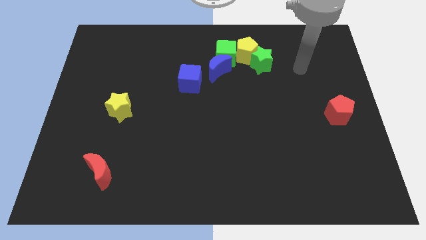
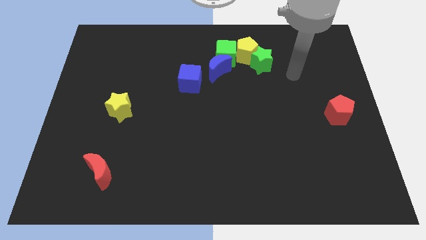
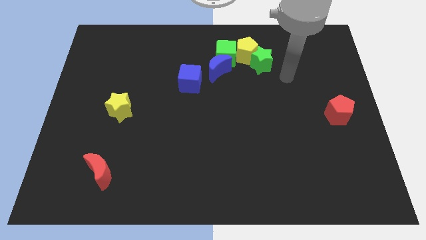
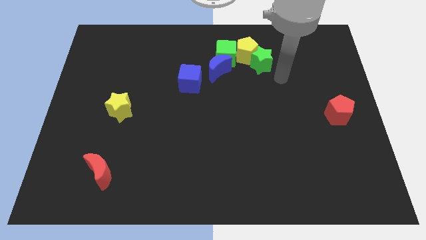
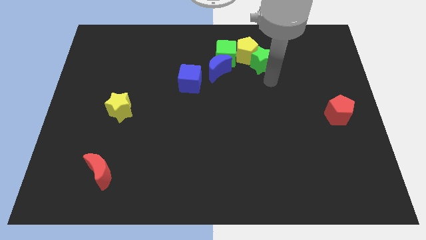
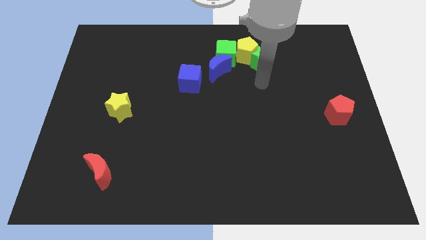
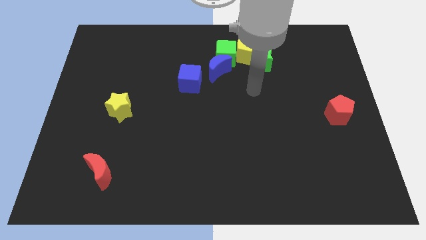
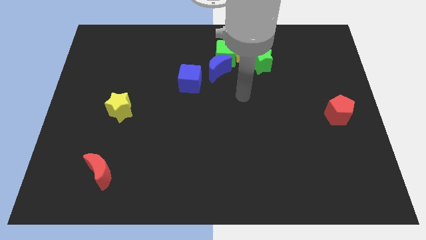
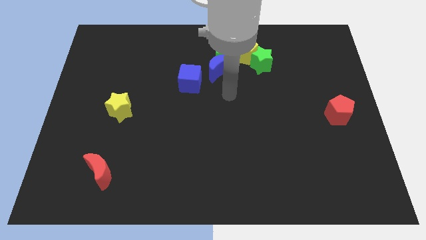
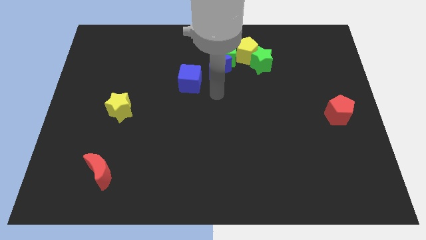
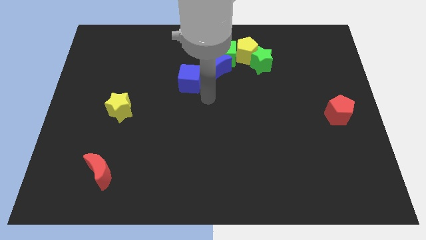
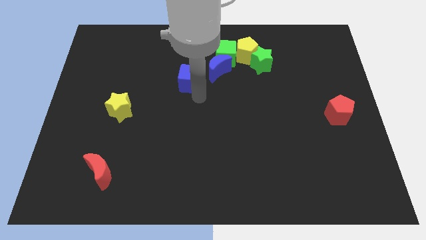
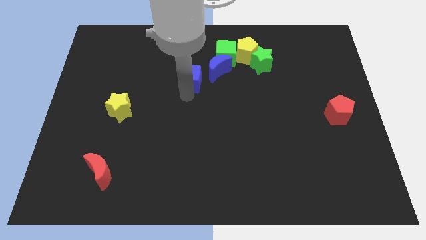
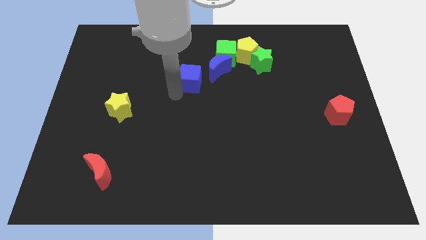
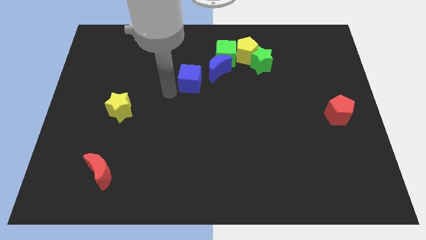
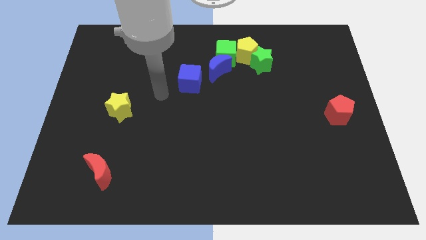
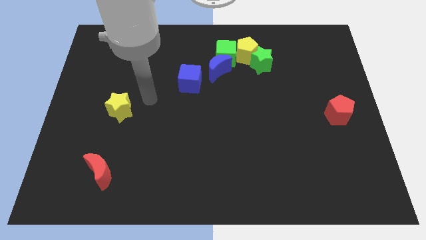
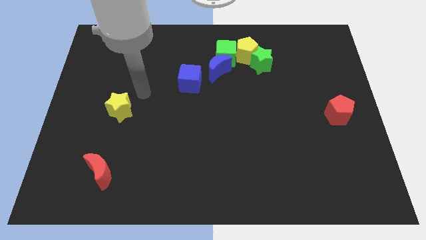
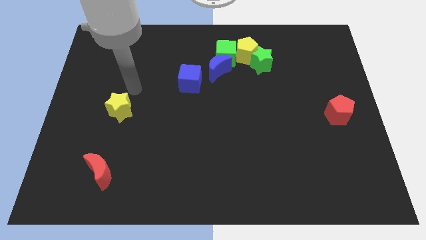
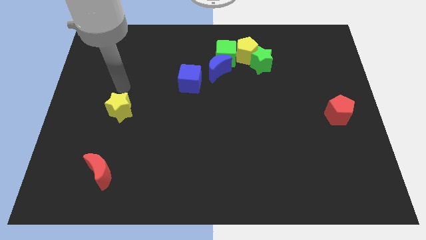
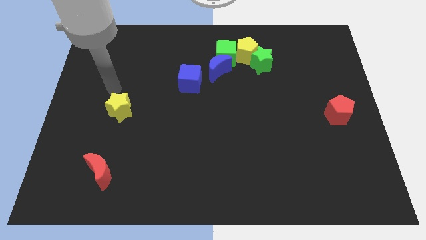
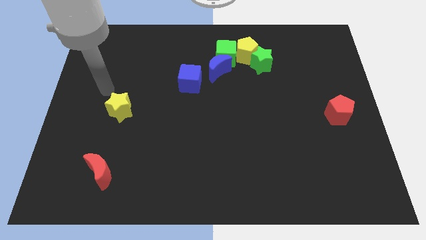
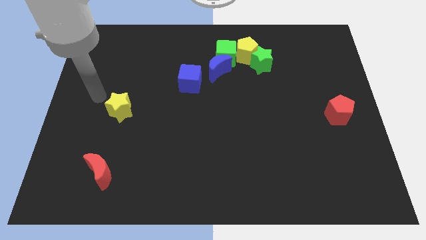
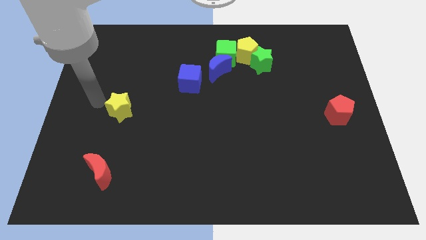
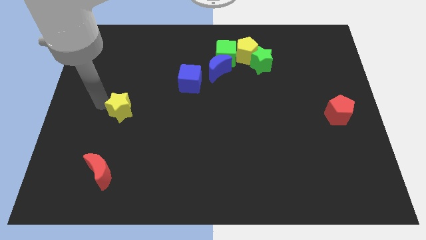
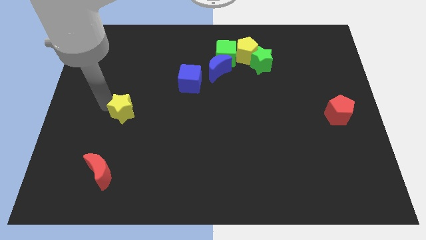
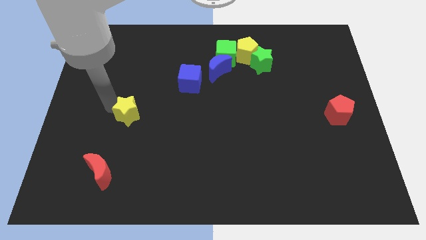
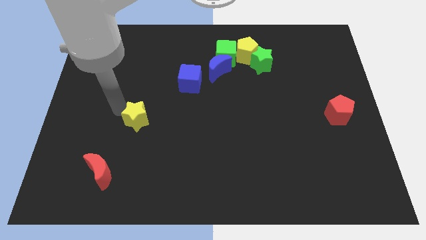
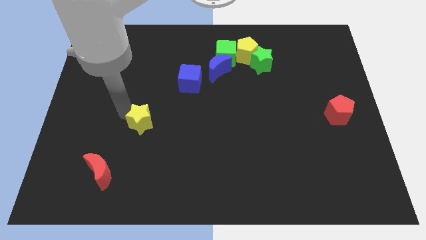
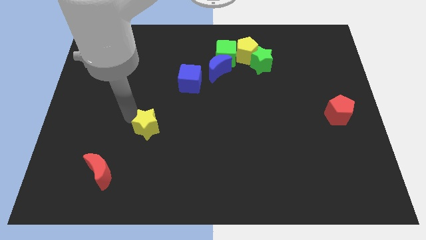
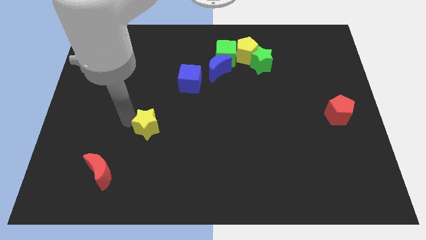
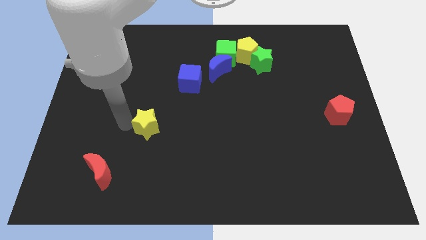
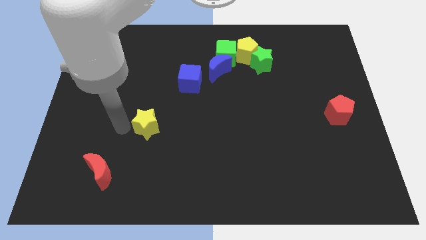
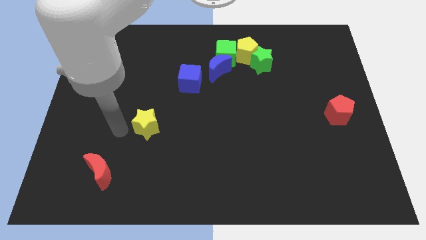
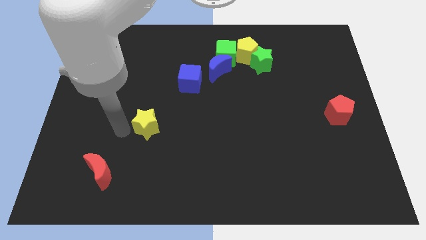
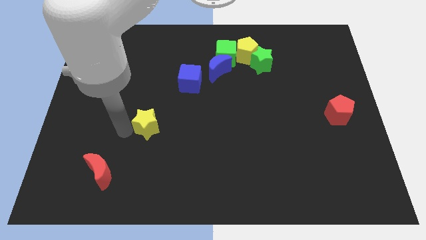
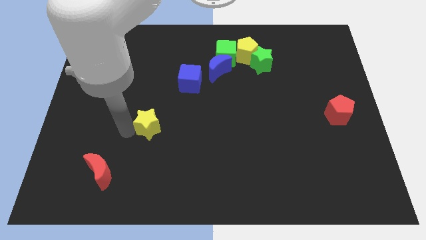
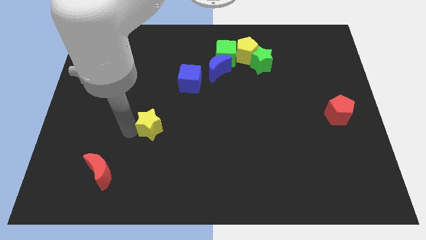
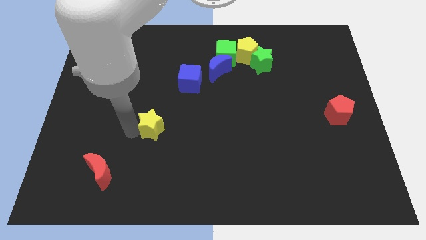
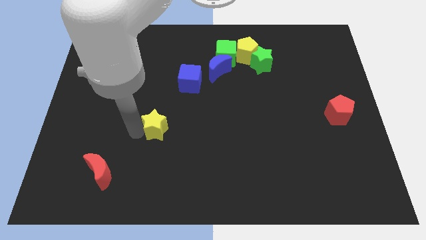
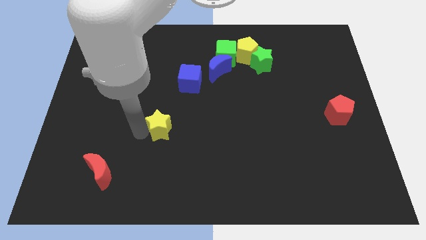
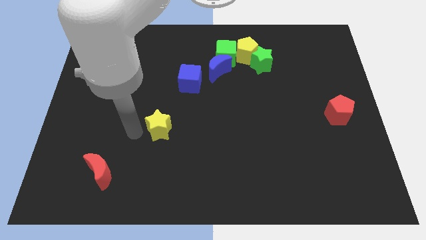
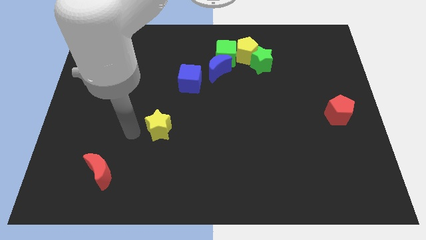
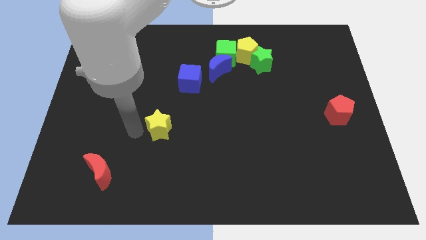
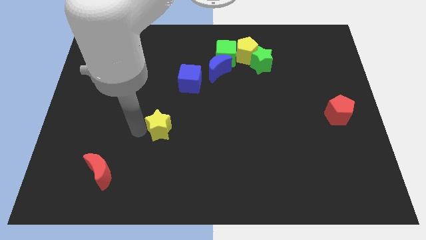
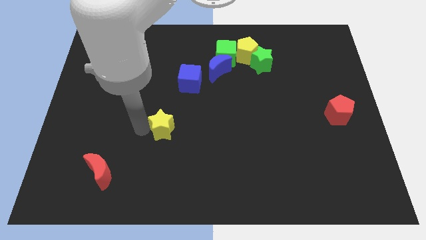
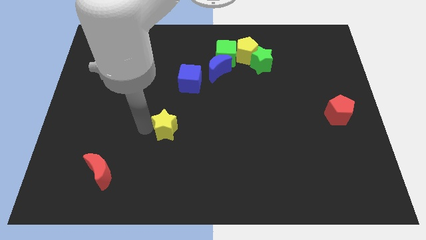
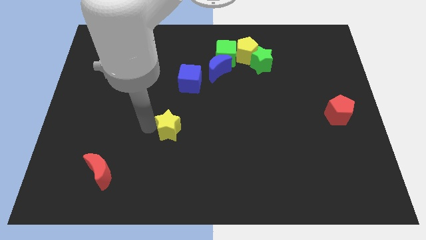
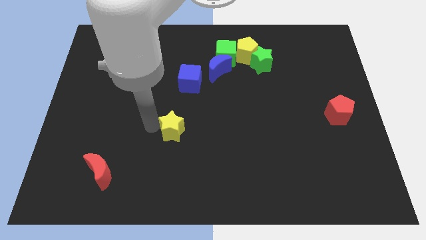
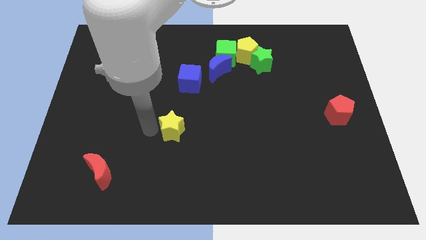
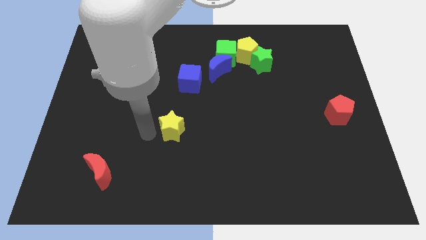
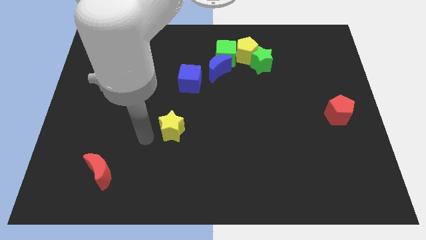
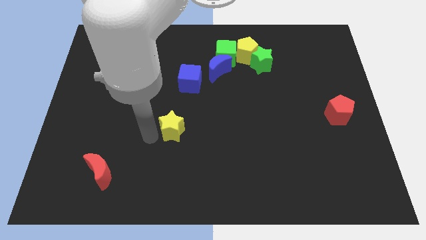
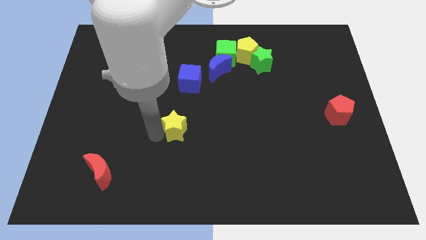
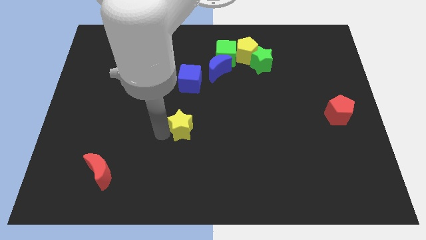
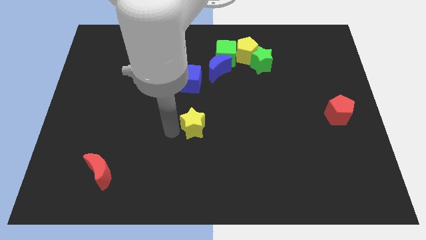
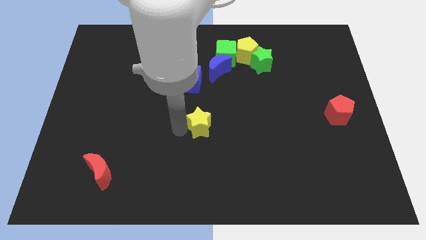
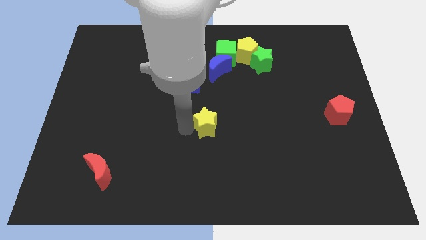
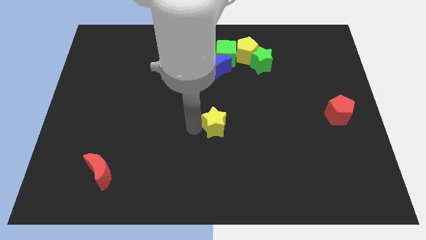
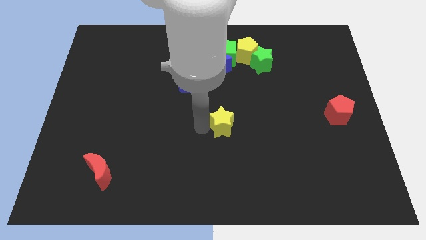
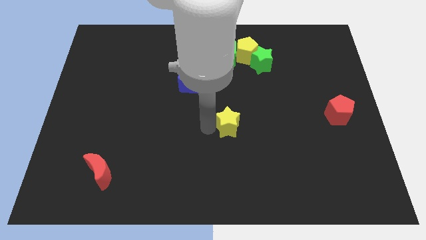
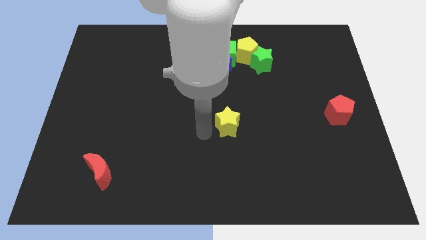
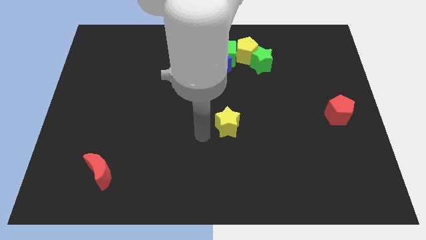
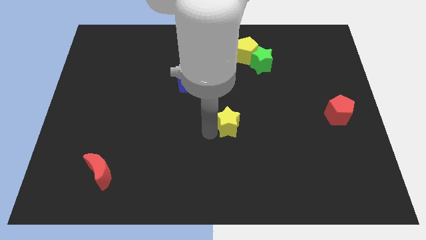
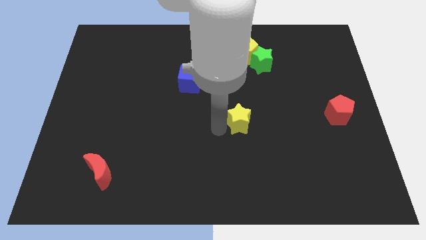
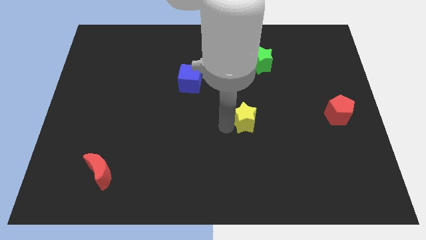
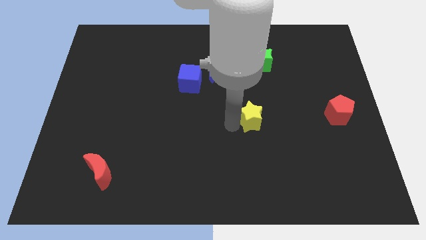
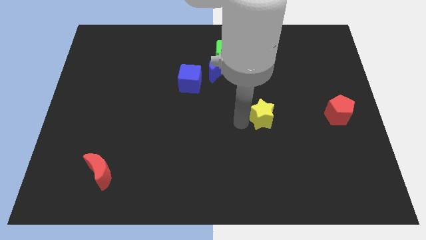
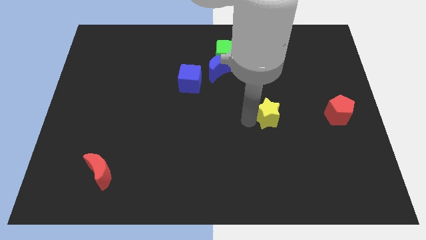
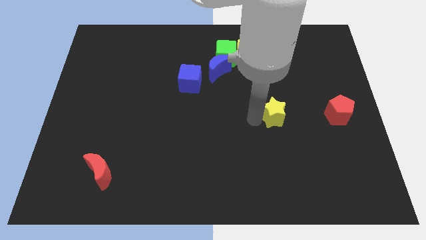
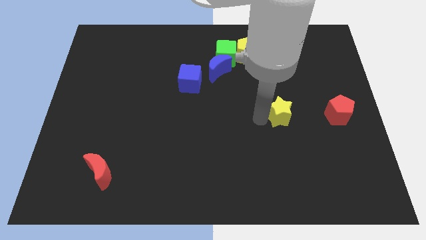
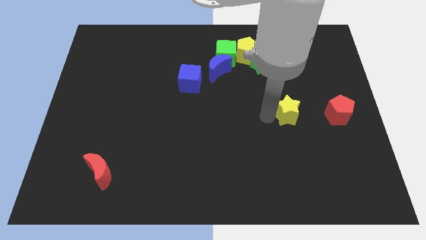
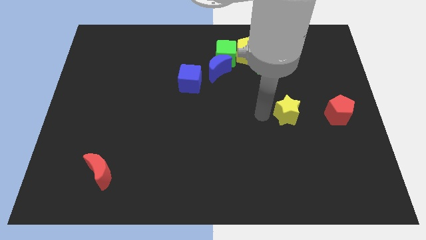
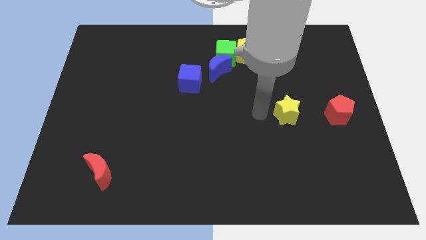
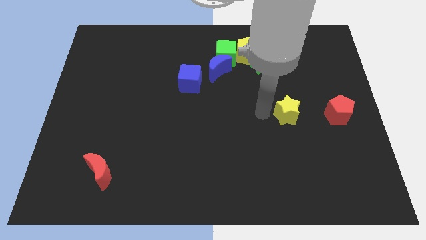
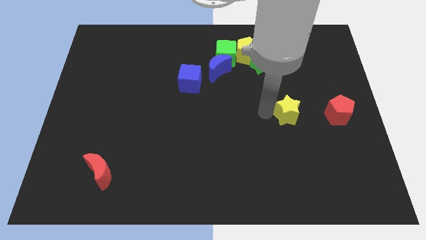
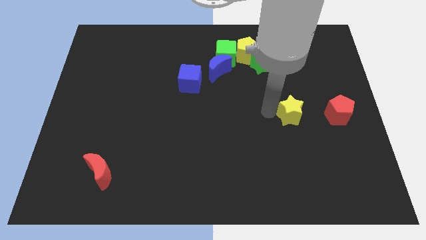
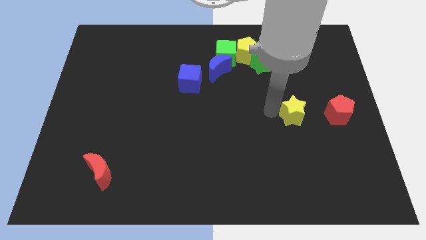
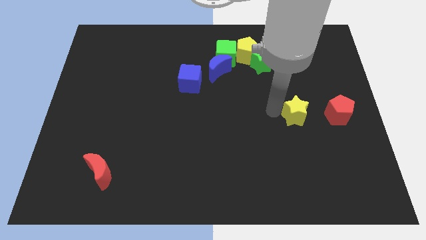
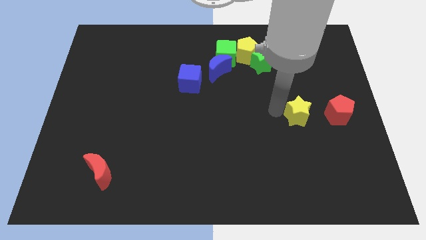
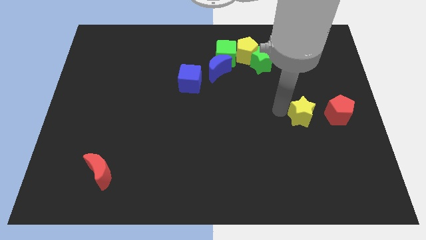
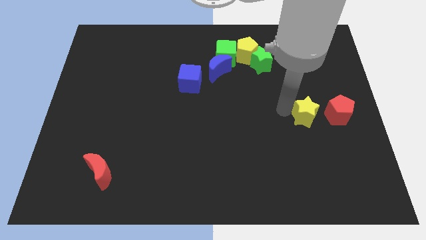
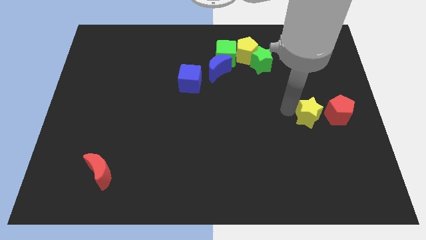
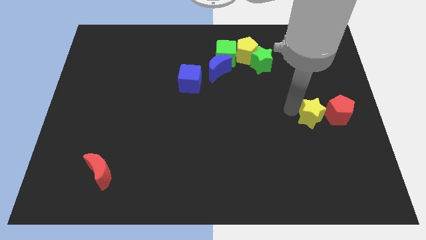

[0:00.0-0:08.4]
push the yellow star towards the red pentagon
